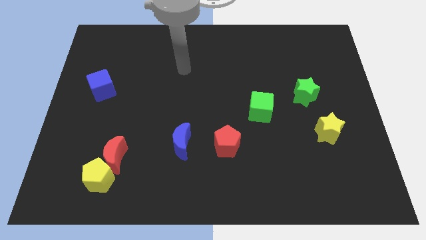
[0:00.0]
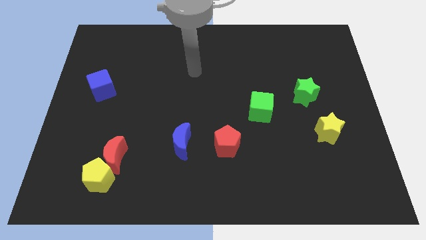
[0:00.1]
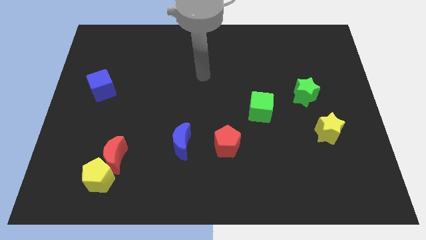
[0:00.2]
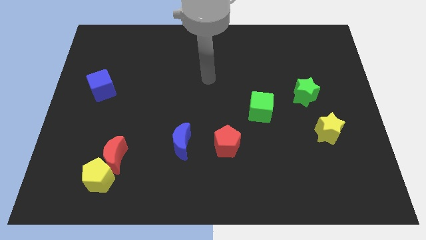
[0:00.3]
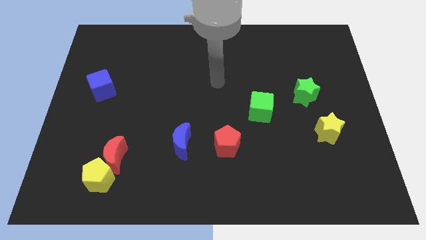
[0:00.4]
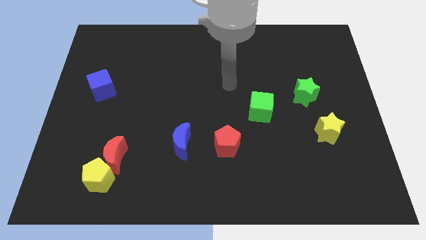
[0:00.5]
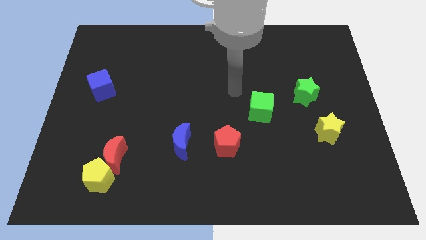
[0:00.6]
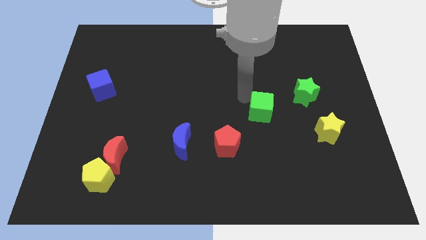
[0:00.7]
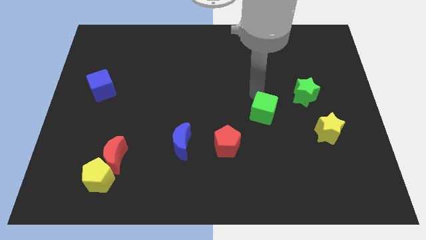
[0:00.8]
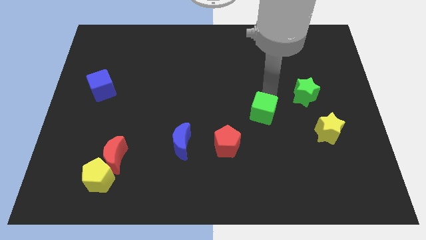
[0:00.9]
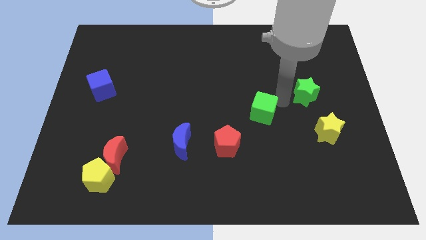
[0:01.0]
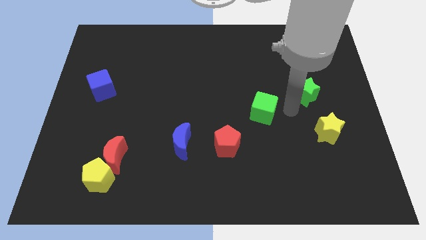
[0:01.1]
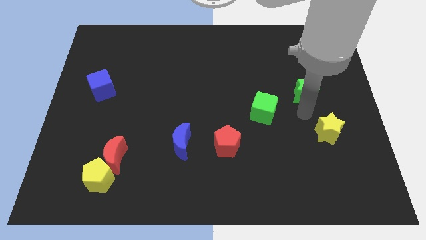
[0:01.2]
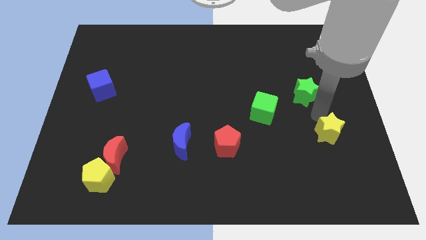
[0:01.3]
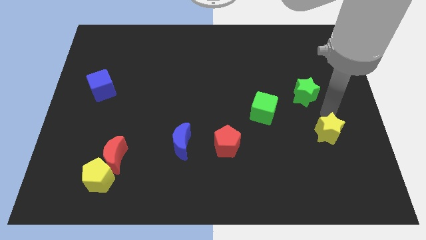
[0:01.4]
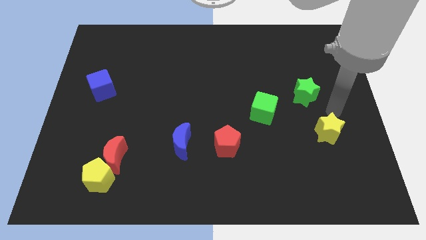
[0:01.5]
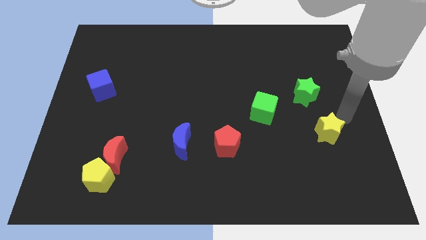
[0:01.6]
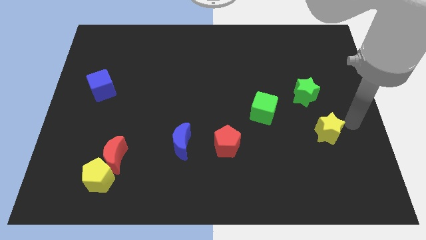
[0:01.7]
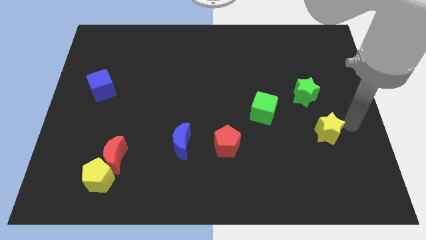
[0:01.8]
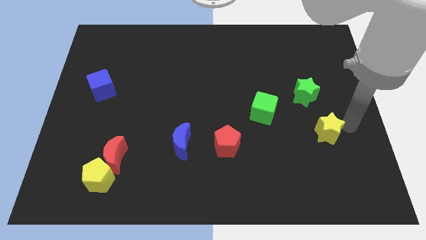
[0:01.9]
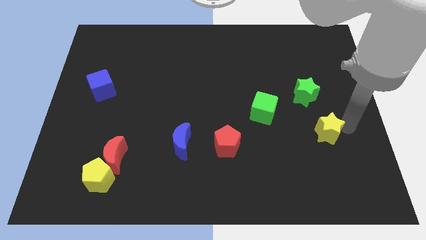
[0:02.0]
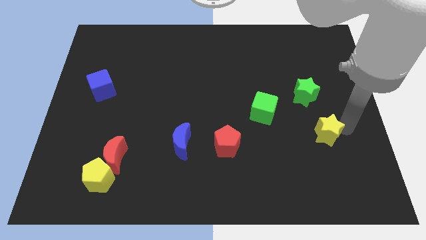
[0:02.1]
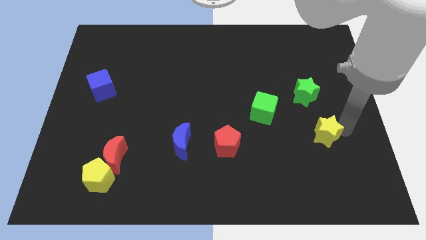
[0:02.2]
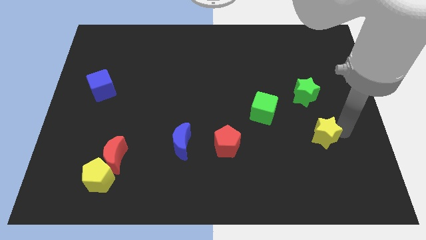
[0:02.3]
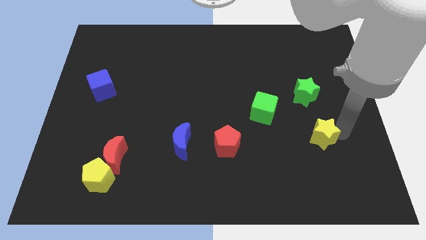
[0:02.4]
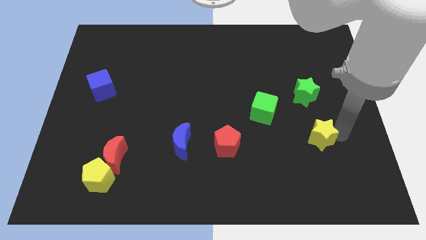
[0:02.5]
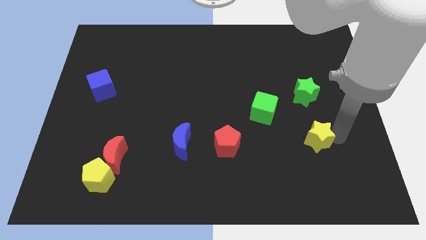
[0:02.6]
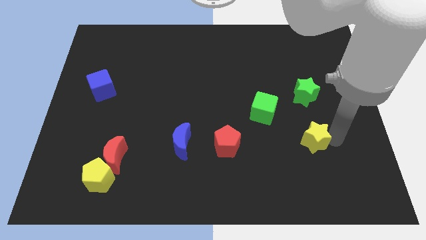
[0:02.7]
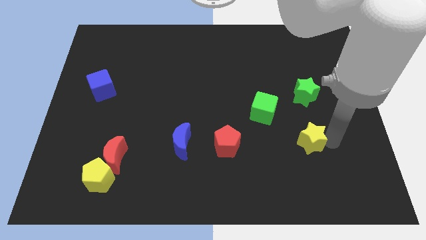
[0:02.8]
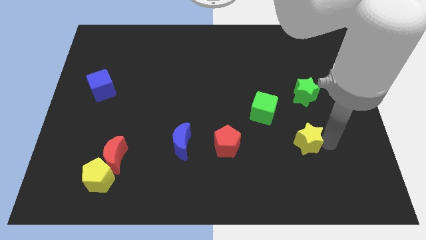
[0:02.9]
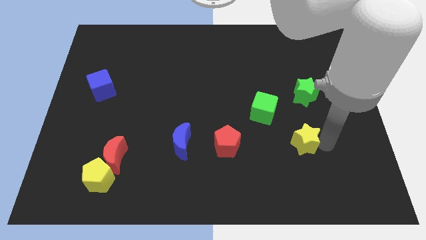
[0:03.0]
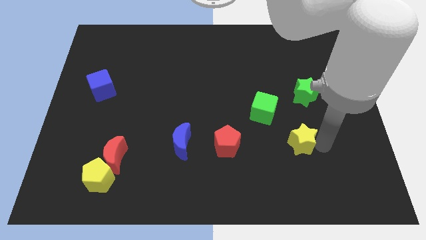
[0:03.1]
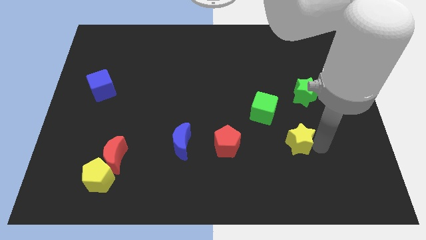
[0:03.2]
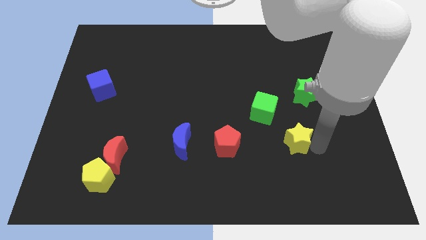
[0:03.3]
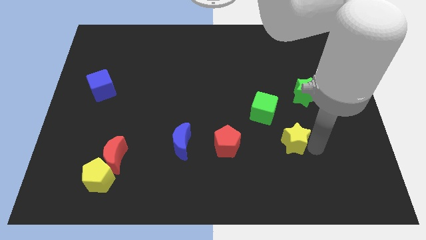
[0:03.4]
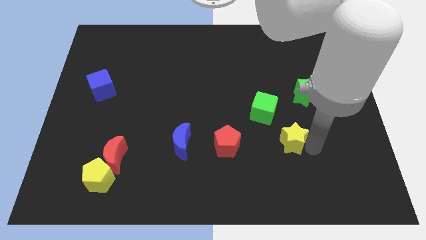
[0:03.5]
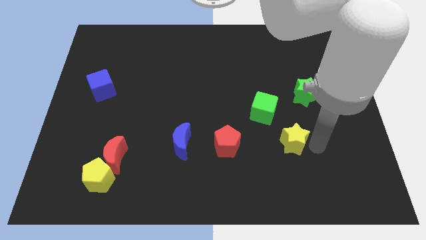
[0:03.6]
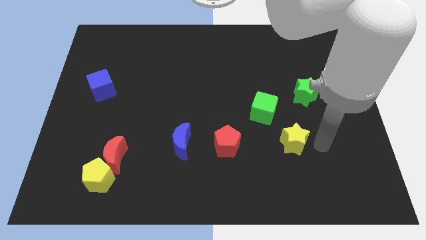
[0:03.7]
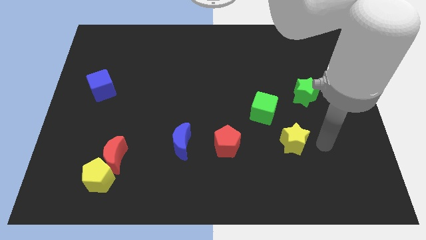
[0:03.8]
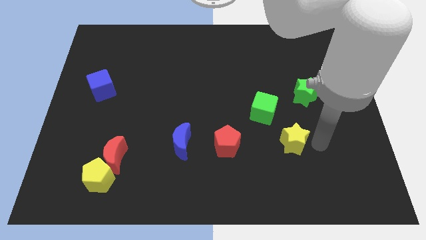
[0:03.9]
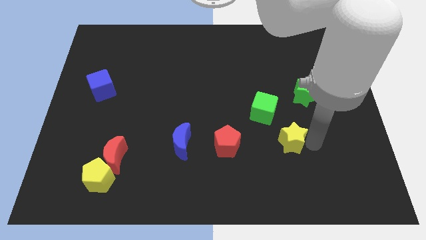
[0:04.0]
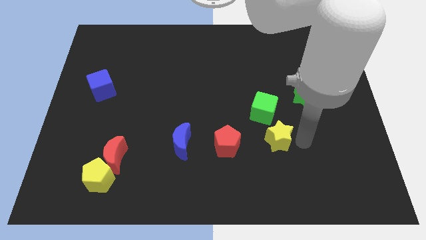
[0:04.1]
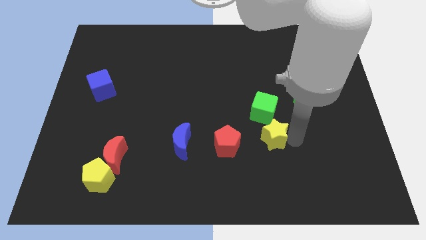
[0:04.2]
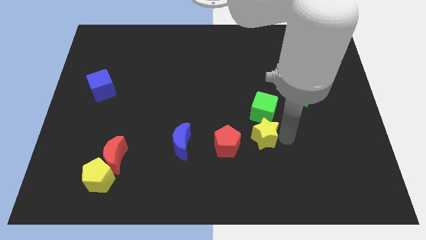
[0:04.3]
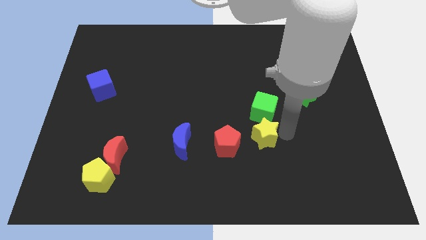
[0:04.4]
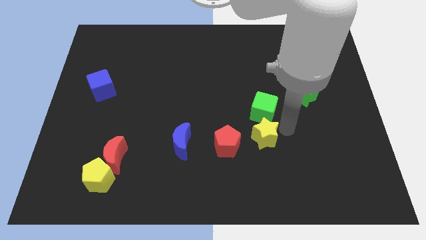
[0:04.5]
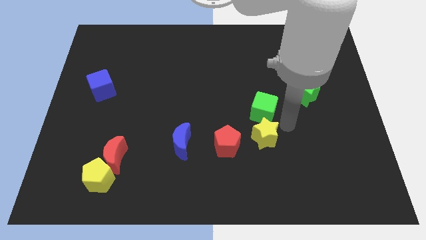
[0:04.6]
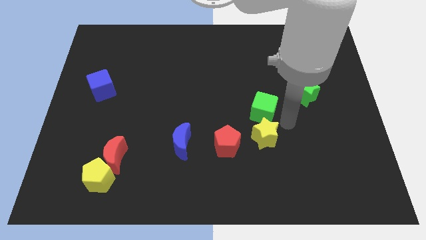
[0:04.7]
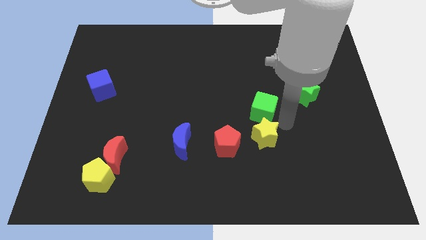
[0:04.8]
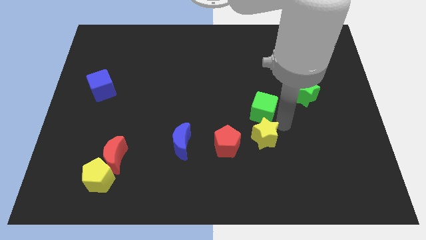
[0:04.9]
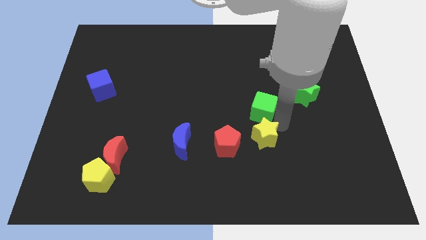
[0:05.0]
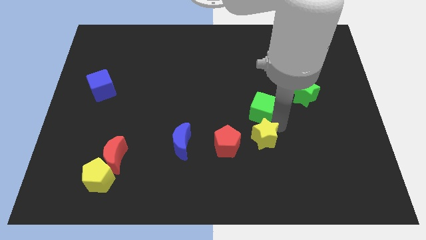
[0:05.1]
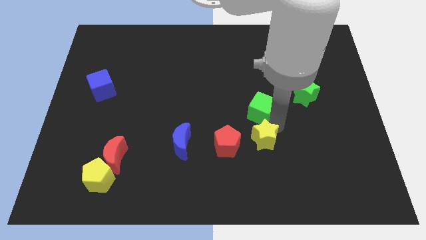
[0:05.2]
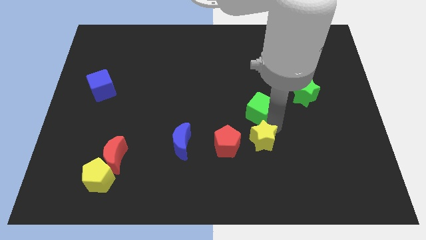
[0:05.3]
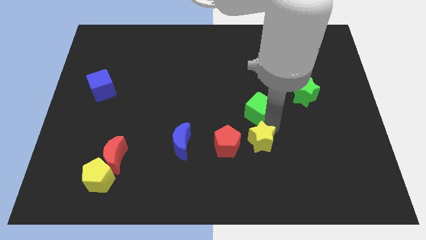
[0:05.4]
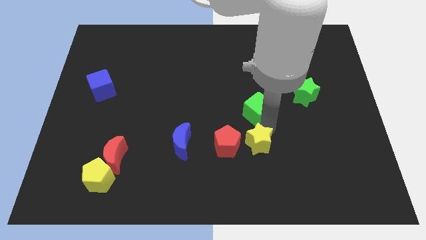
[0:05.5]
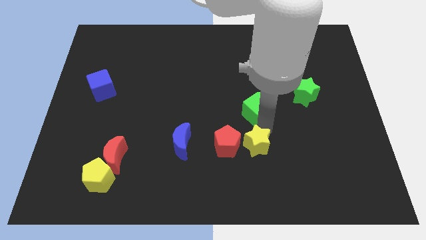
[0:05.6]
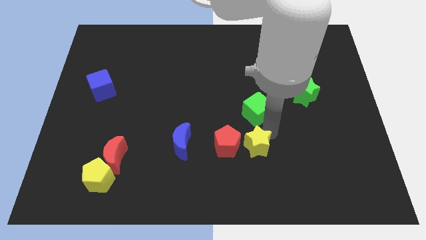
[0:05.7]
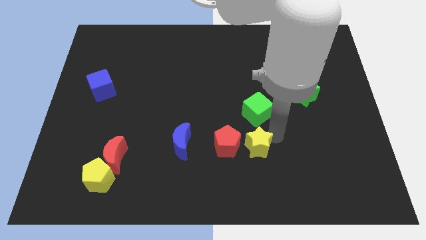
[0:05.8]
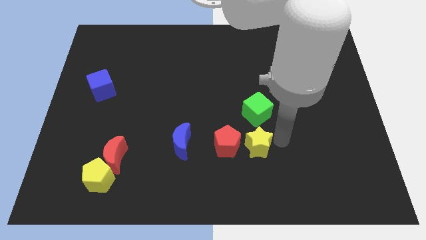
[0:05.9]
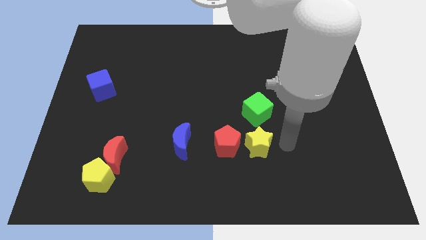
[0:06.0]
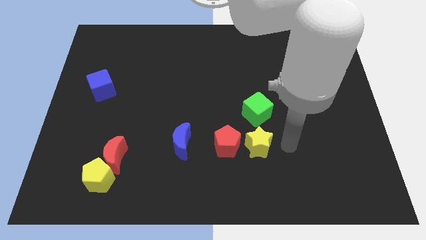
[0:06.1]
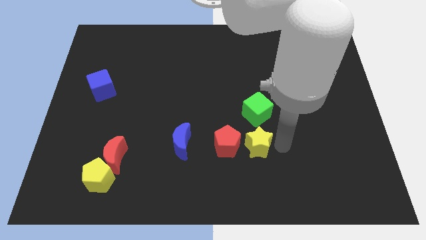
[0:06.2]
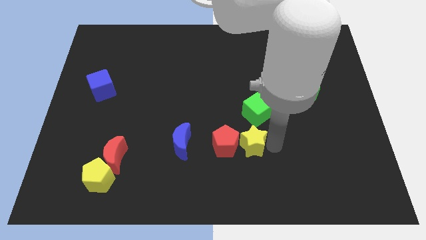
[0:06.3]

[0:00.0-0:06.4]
move the yellow star towards the red pentagon

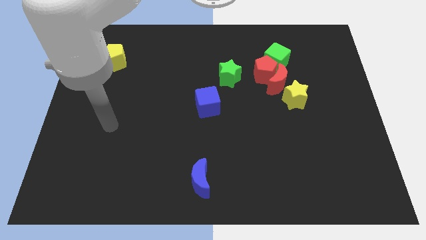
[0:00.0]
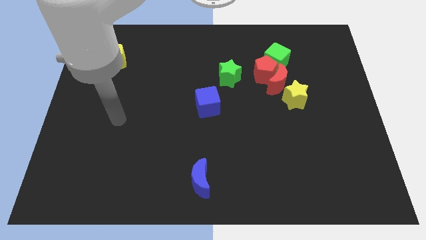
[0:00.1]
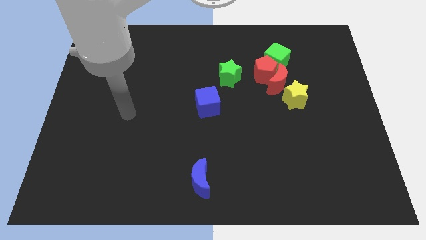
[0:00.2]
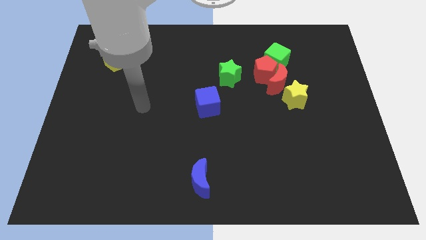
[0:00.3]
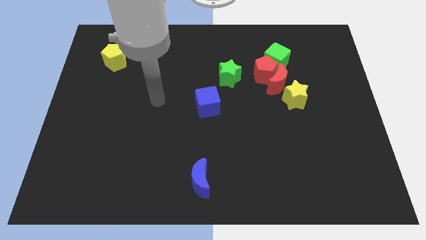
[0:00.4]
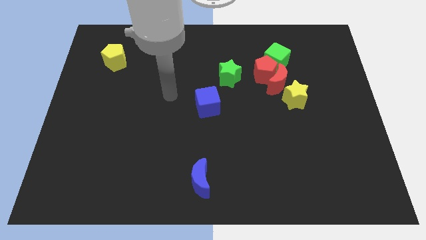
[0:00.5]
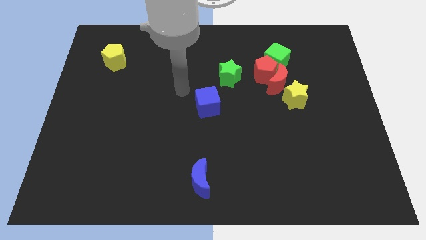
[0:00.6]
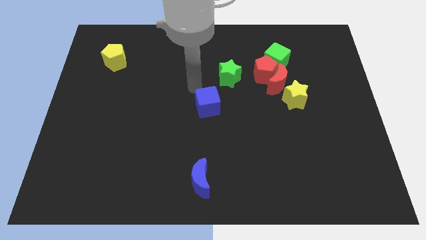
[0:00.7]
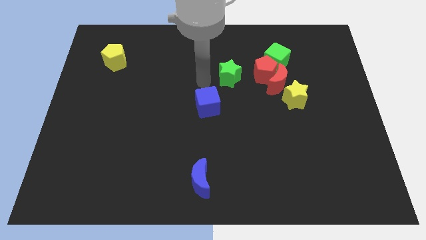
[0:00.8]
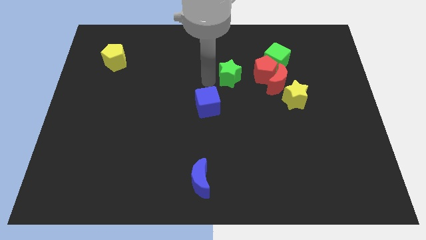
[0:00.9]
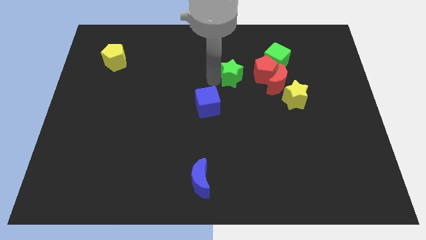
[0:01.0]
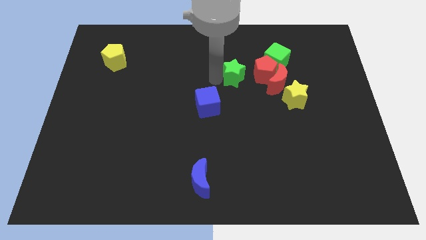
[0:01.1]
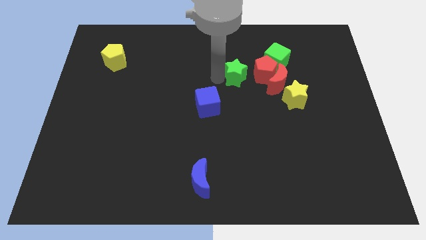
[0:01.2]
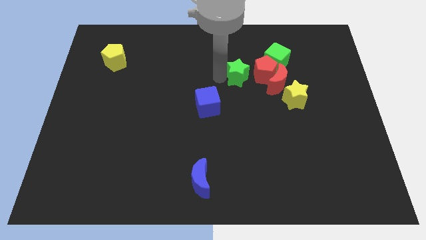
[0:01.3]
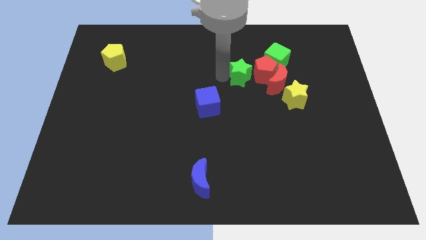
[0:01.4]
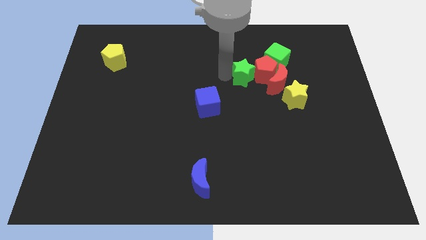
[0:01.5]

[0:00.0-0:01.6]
slide the green star towards the red pentagon
